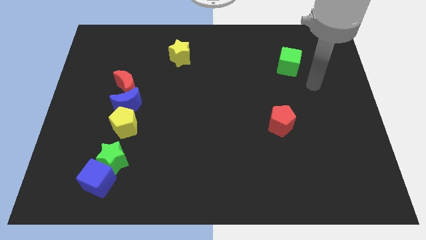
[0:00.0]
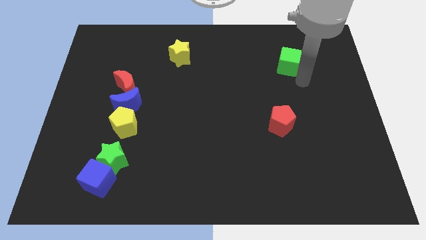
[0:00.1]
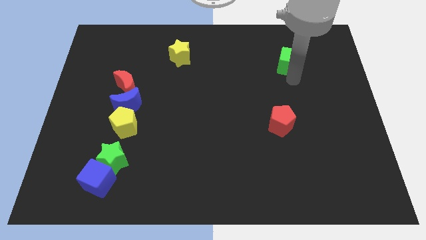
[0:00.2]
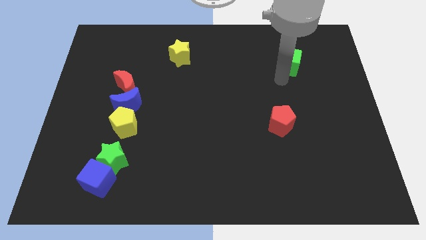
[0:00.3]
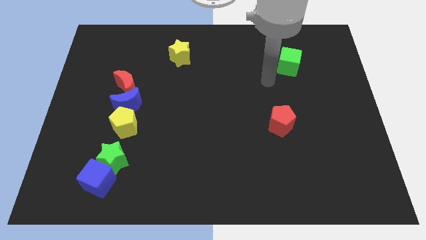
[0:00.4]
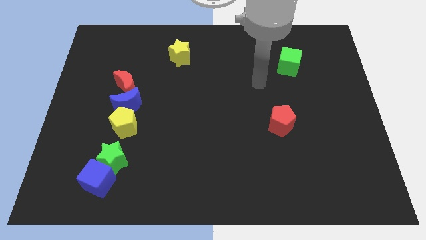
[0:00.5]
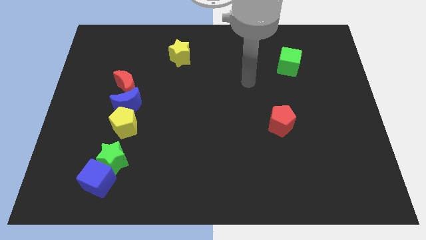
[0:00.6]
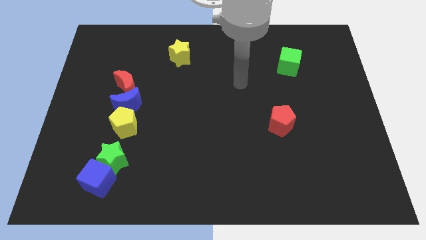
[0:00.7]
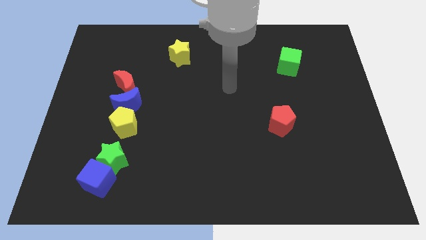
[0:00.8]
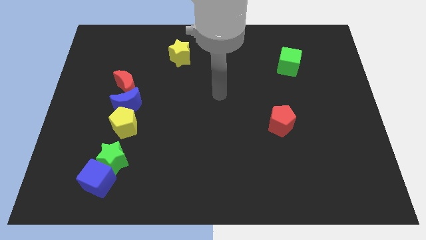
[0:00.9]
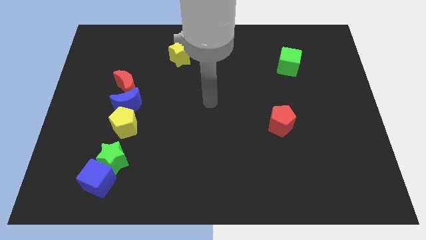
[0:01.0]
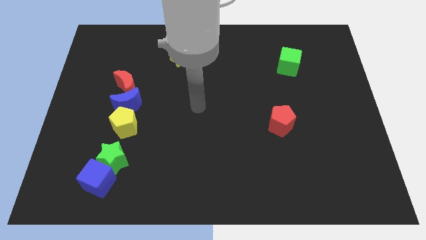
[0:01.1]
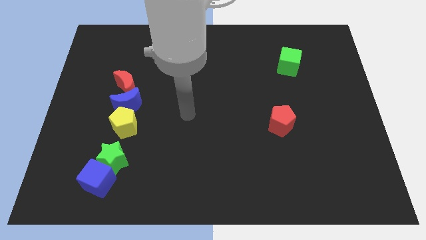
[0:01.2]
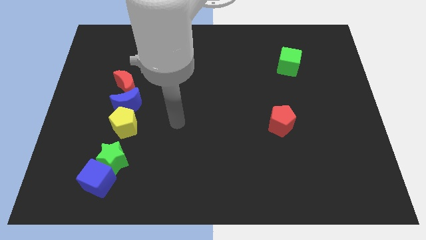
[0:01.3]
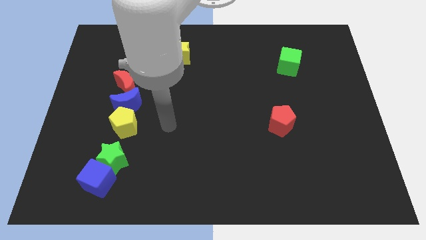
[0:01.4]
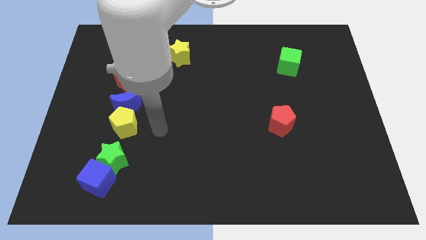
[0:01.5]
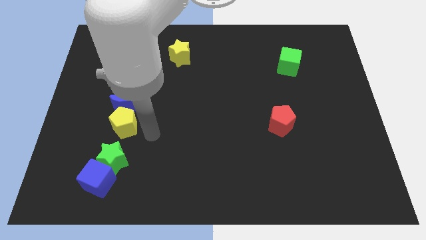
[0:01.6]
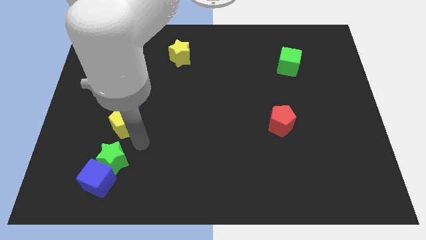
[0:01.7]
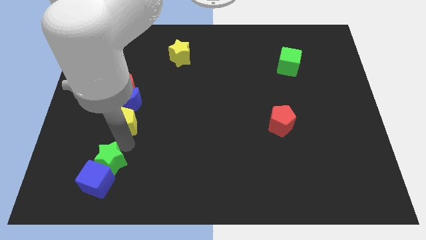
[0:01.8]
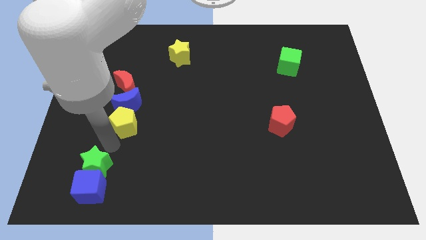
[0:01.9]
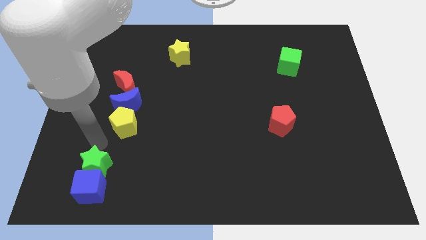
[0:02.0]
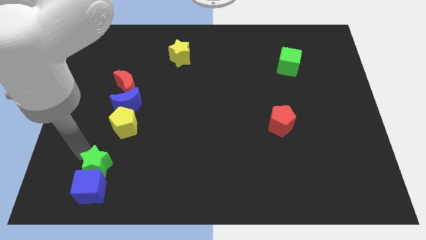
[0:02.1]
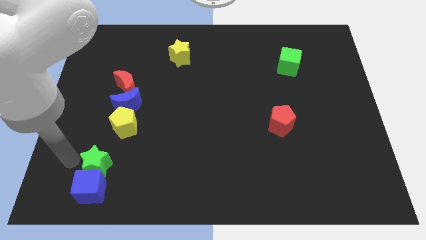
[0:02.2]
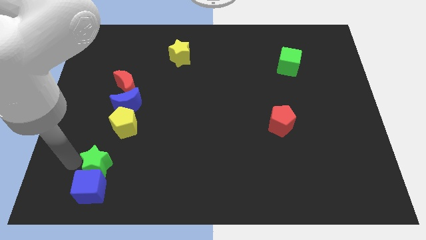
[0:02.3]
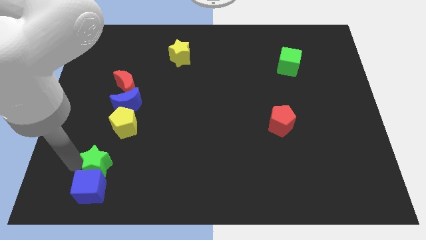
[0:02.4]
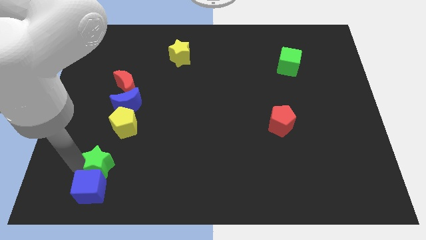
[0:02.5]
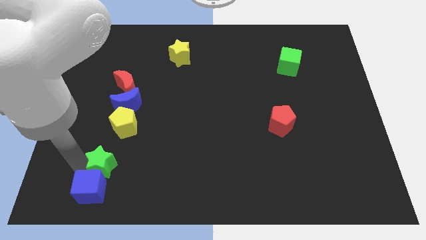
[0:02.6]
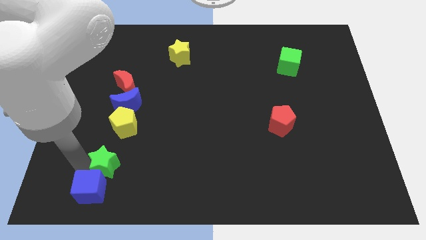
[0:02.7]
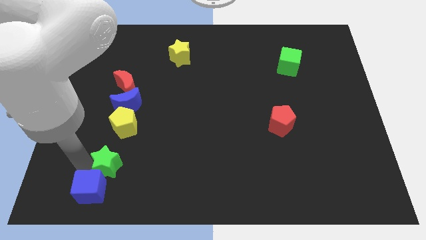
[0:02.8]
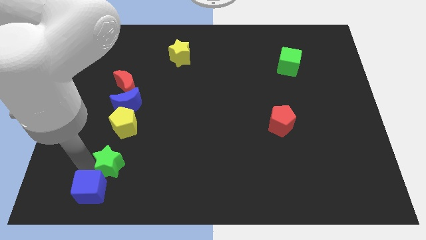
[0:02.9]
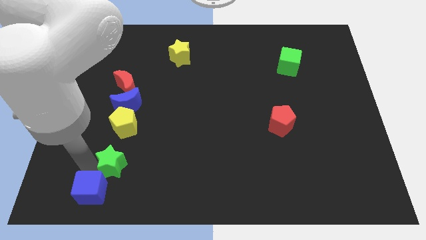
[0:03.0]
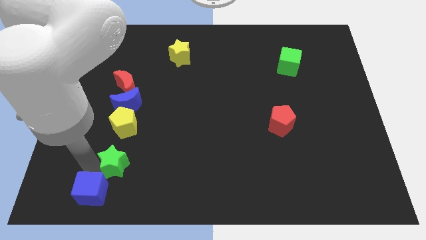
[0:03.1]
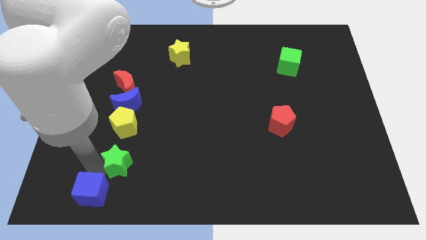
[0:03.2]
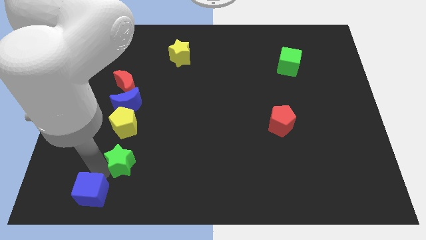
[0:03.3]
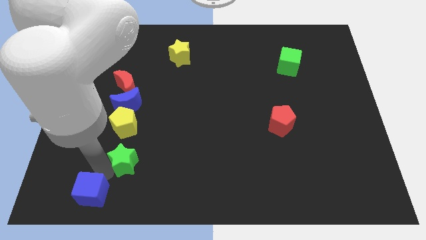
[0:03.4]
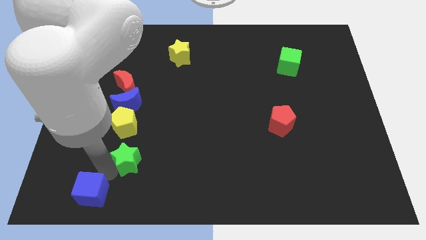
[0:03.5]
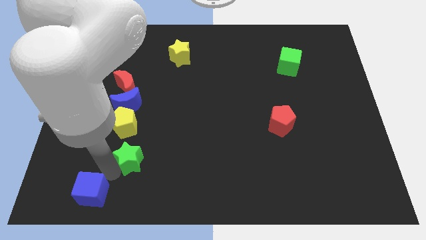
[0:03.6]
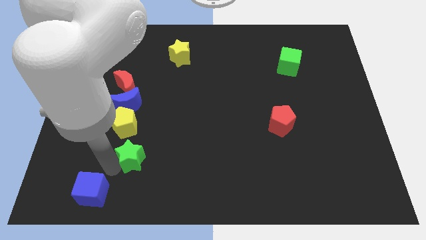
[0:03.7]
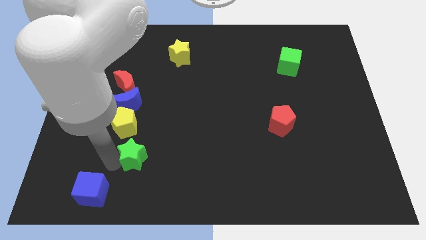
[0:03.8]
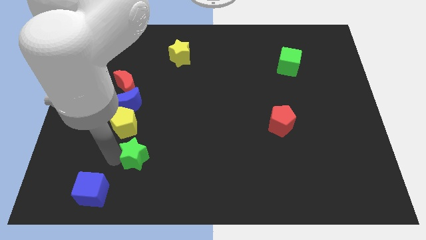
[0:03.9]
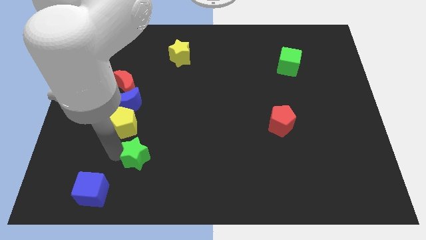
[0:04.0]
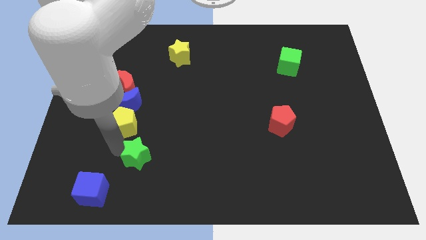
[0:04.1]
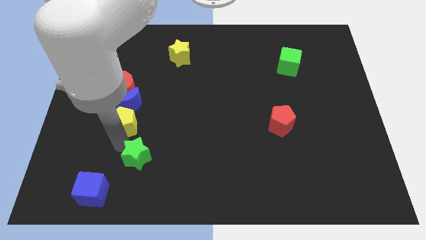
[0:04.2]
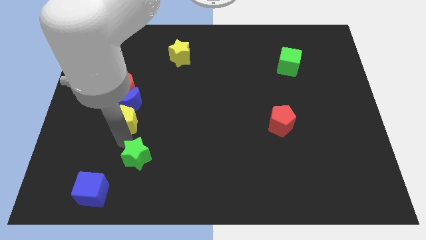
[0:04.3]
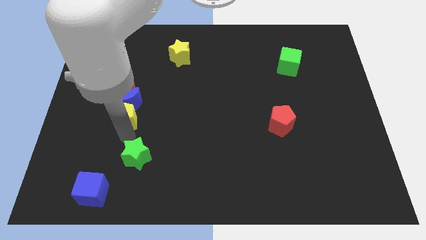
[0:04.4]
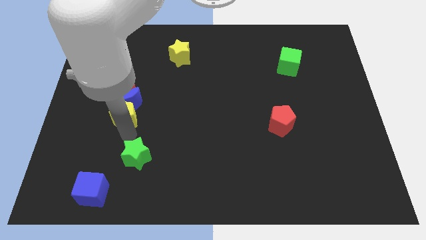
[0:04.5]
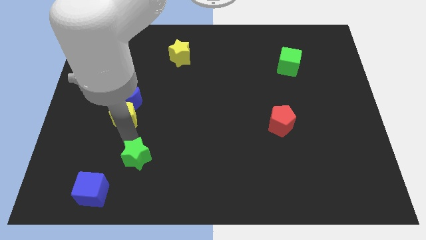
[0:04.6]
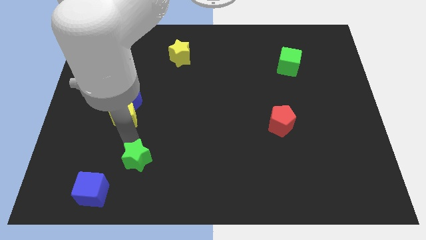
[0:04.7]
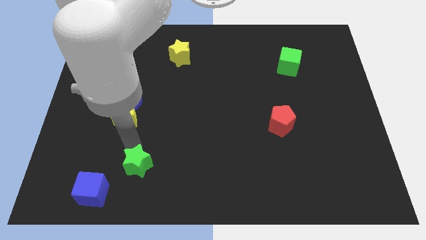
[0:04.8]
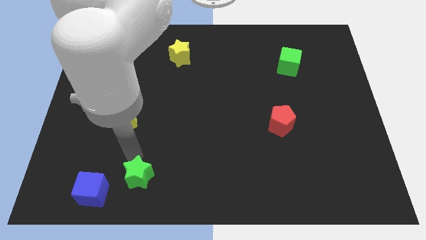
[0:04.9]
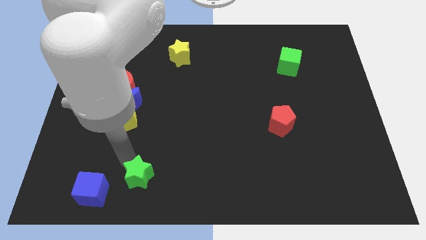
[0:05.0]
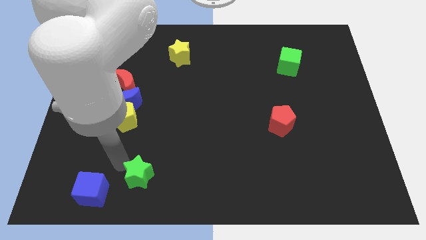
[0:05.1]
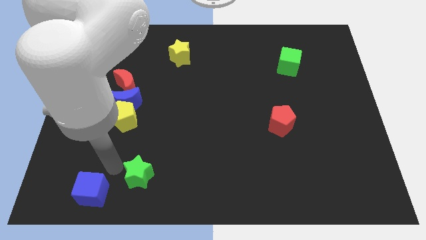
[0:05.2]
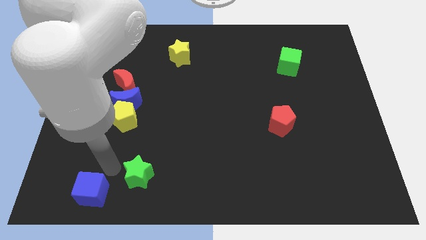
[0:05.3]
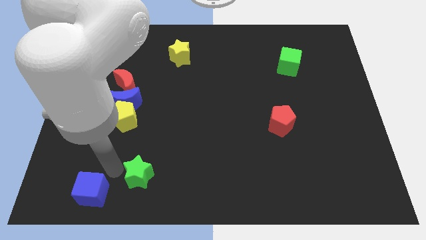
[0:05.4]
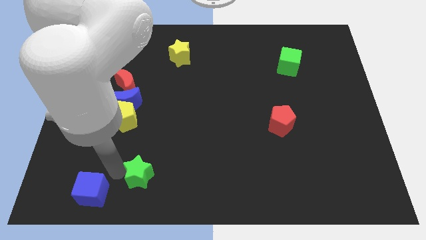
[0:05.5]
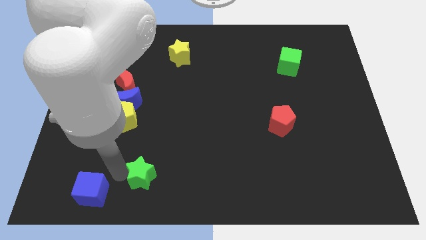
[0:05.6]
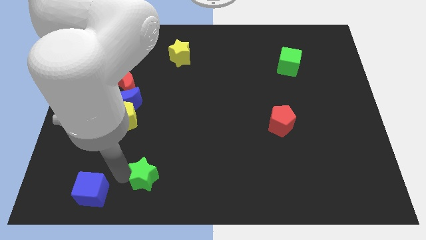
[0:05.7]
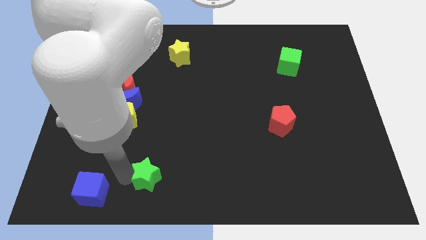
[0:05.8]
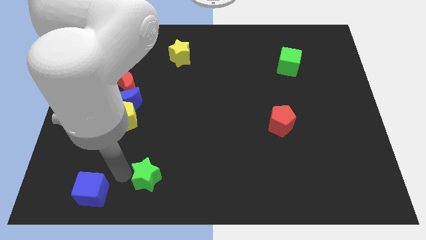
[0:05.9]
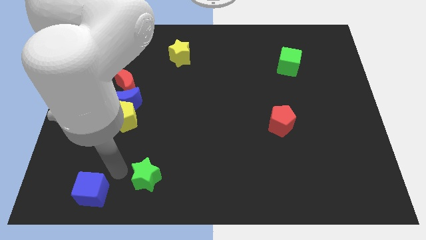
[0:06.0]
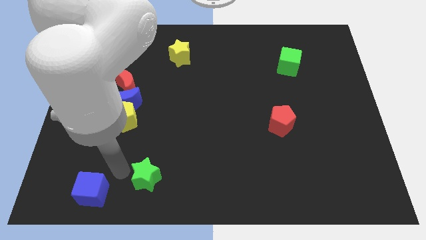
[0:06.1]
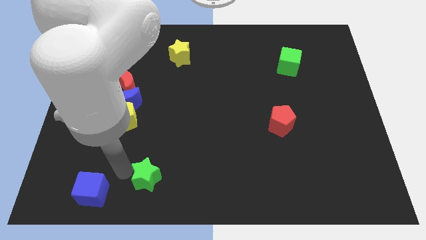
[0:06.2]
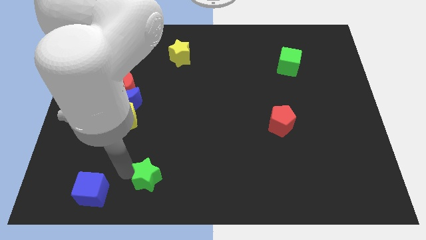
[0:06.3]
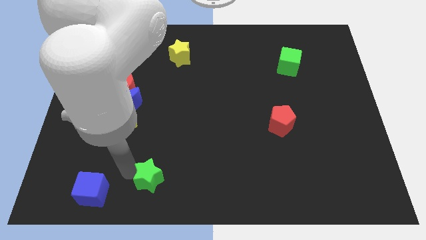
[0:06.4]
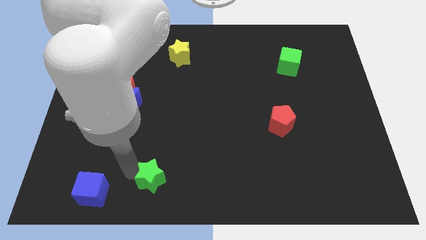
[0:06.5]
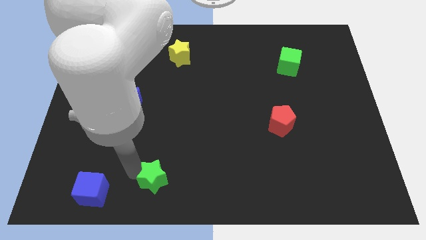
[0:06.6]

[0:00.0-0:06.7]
put the green star to the bottom
